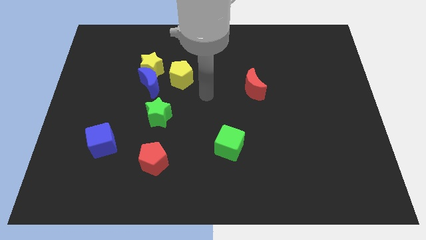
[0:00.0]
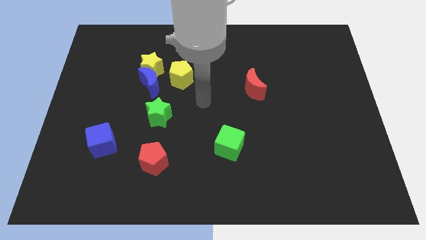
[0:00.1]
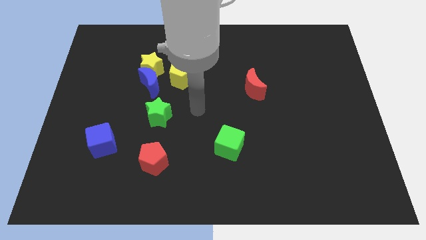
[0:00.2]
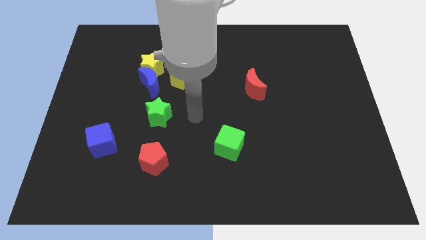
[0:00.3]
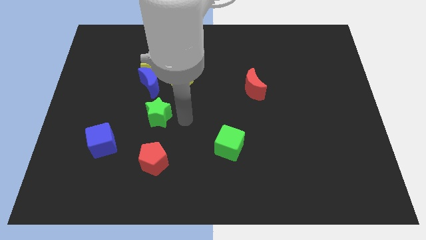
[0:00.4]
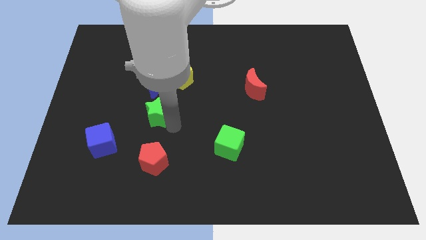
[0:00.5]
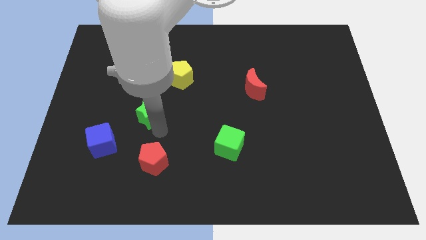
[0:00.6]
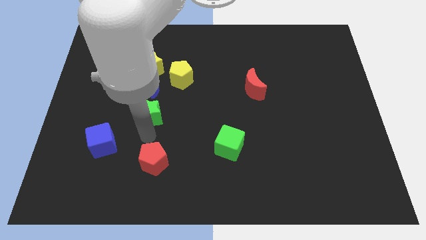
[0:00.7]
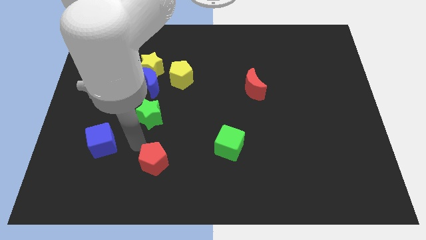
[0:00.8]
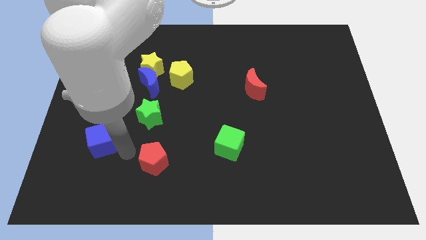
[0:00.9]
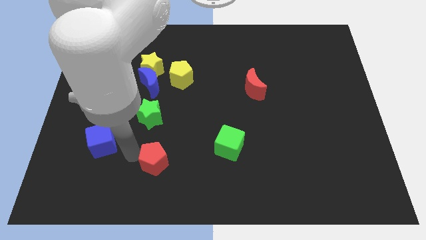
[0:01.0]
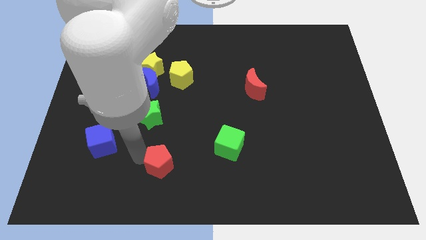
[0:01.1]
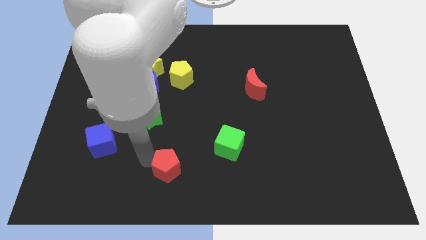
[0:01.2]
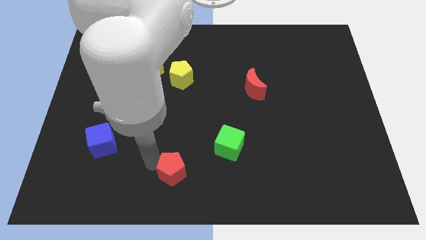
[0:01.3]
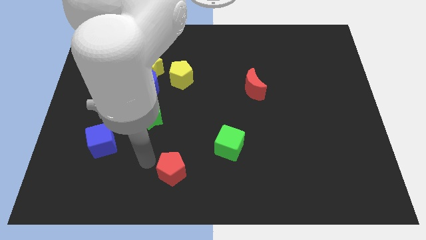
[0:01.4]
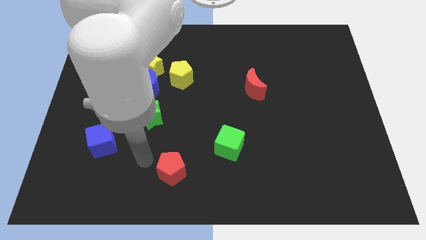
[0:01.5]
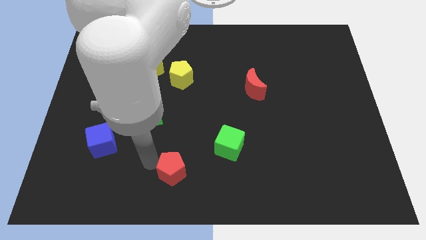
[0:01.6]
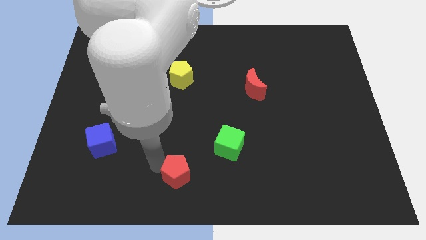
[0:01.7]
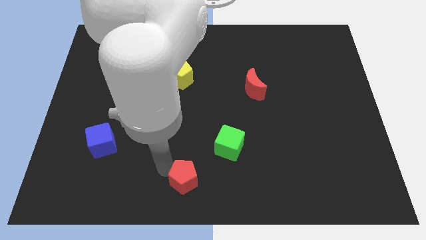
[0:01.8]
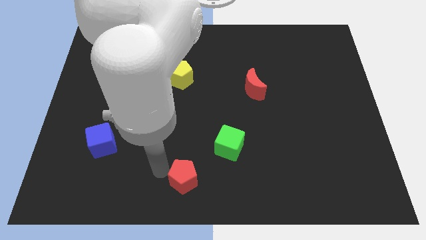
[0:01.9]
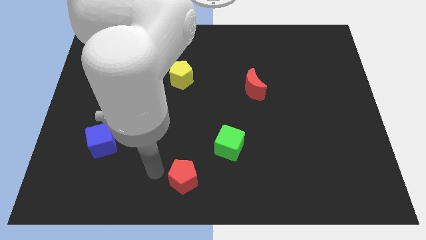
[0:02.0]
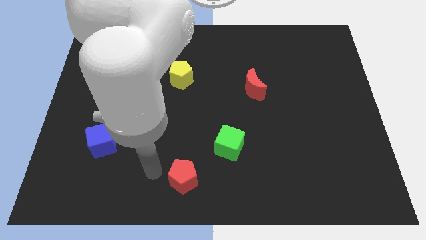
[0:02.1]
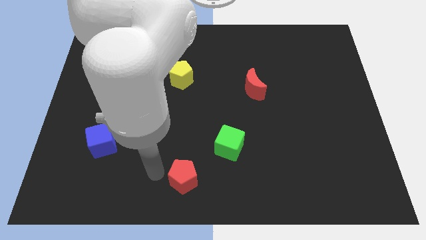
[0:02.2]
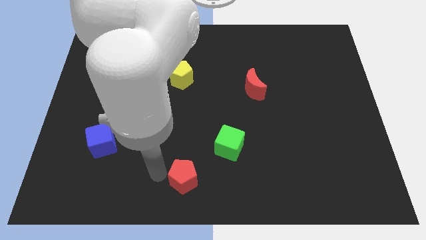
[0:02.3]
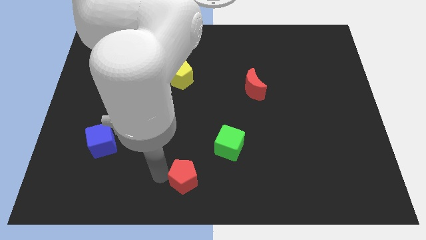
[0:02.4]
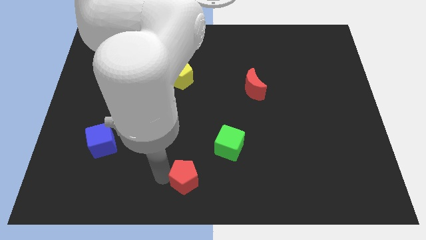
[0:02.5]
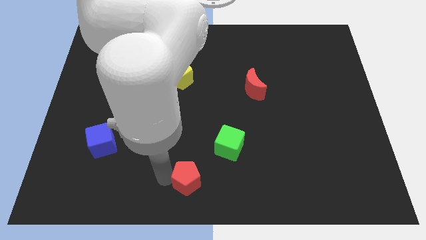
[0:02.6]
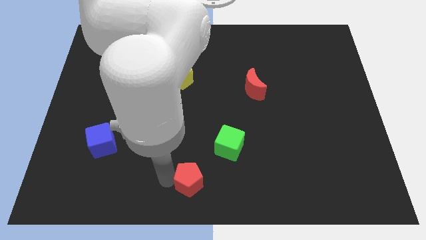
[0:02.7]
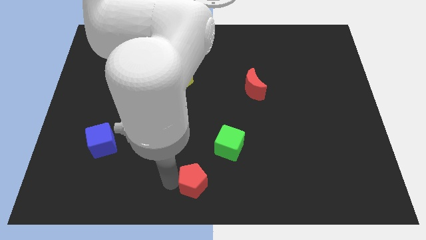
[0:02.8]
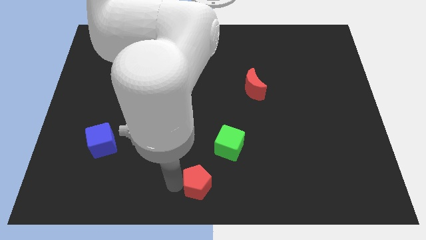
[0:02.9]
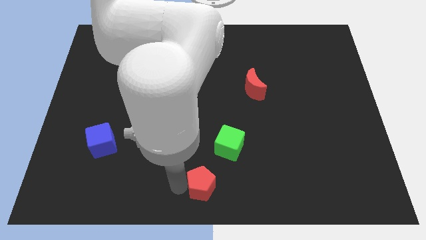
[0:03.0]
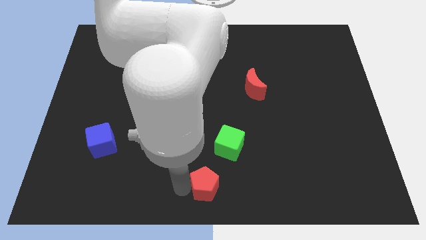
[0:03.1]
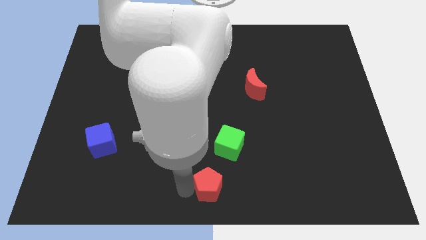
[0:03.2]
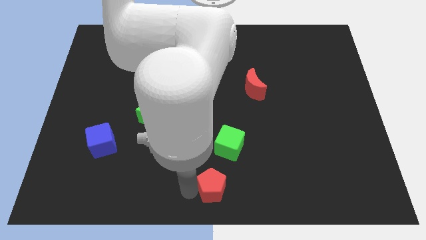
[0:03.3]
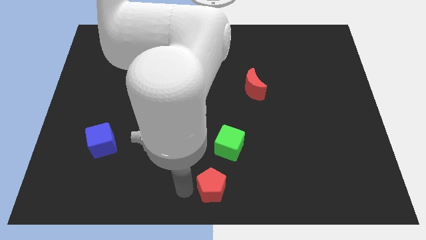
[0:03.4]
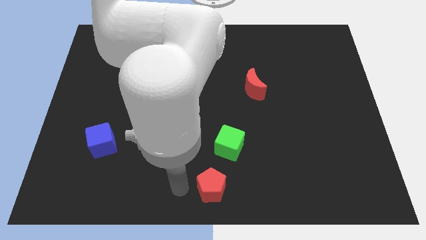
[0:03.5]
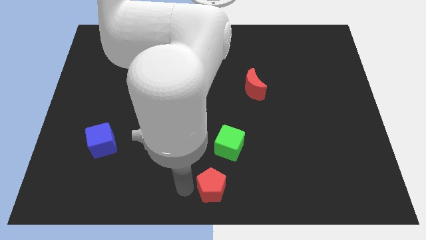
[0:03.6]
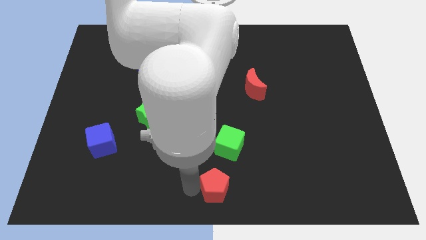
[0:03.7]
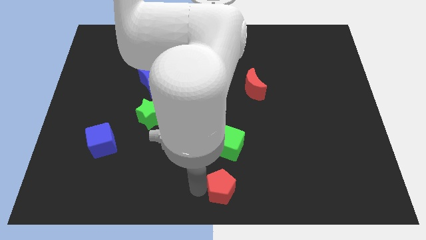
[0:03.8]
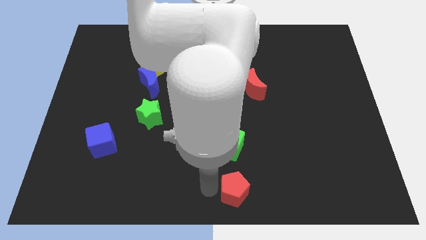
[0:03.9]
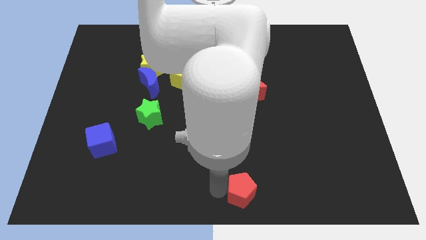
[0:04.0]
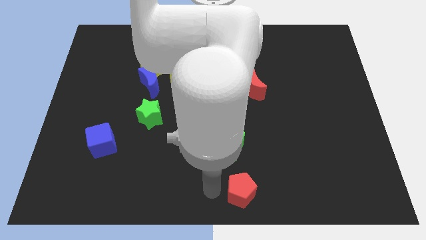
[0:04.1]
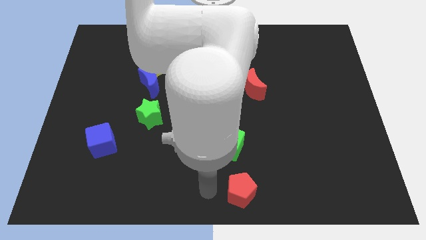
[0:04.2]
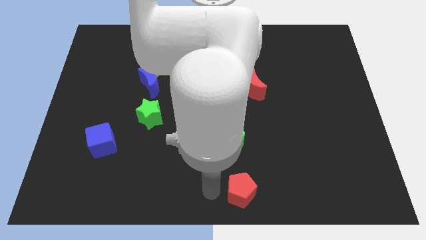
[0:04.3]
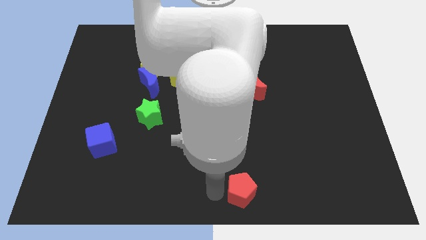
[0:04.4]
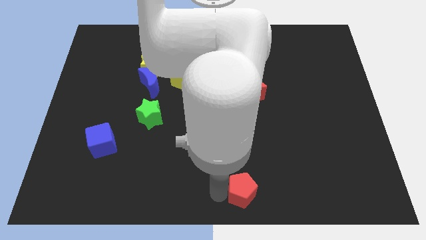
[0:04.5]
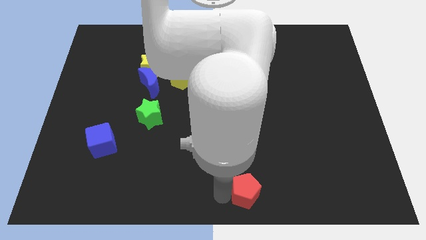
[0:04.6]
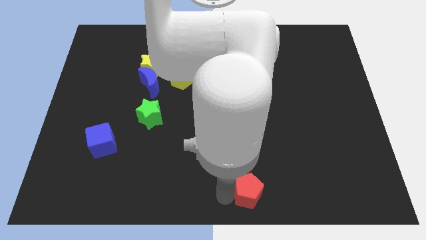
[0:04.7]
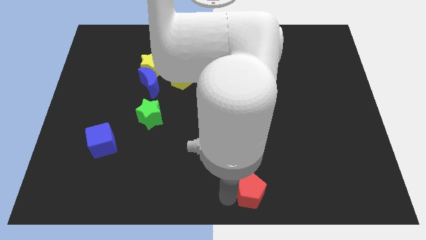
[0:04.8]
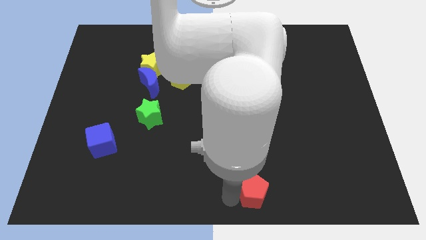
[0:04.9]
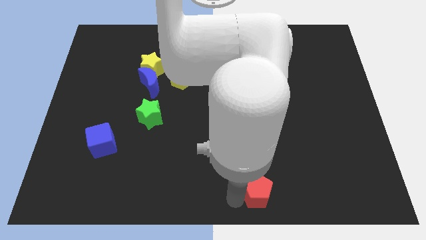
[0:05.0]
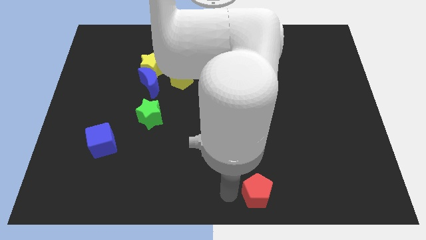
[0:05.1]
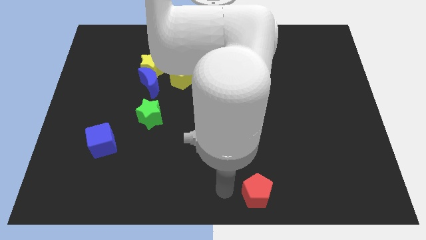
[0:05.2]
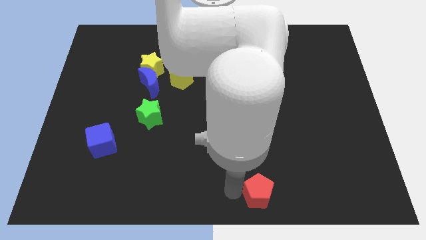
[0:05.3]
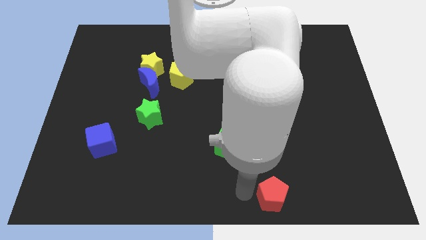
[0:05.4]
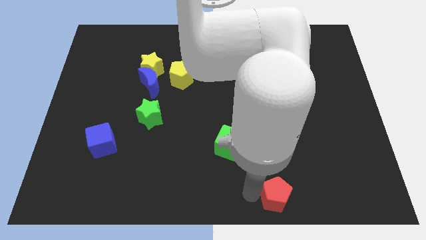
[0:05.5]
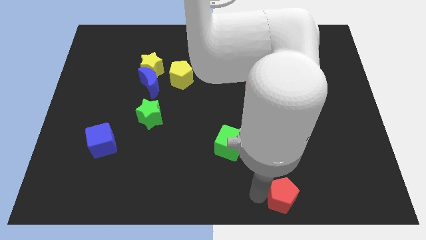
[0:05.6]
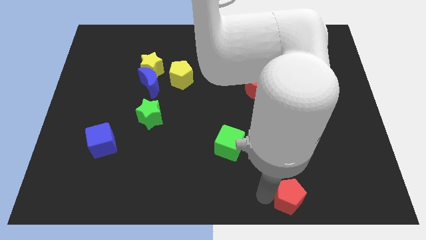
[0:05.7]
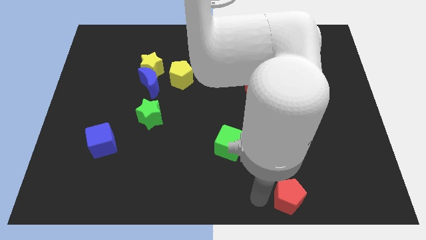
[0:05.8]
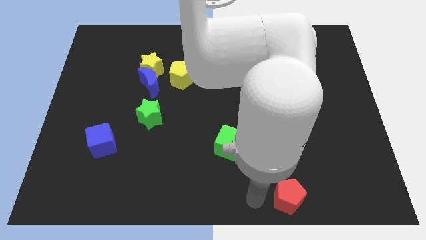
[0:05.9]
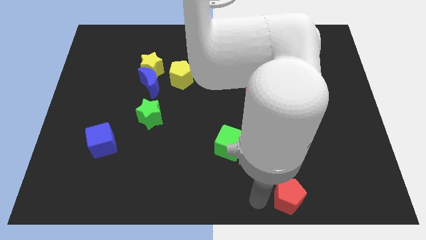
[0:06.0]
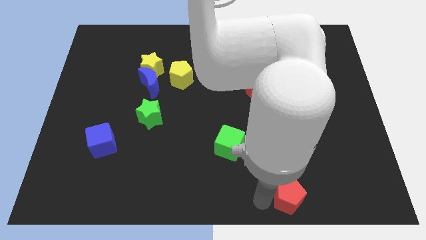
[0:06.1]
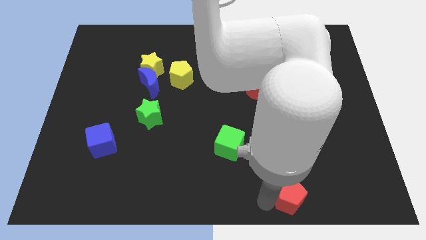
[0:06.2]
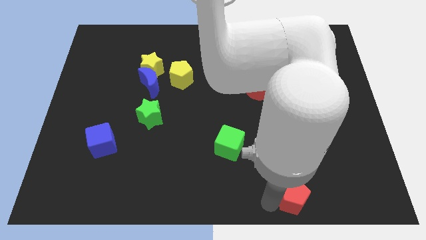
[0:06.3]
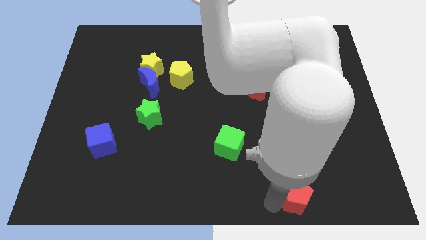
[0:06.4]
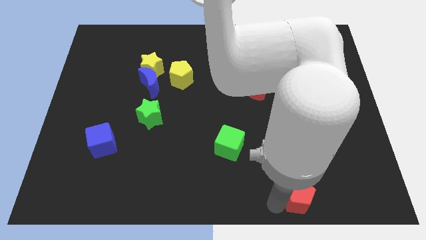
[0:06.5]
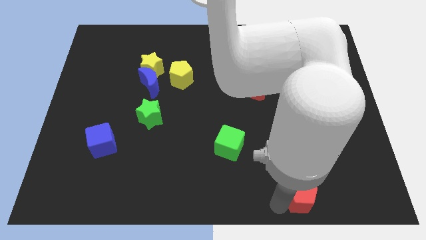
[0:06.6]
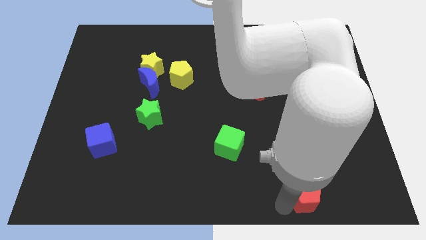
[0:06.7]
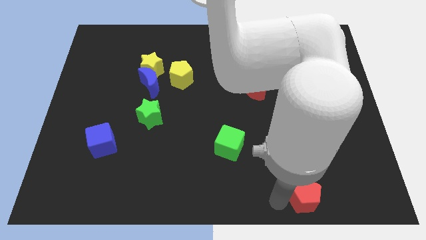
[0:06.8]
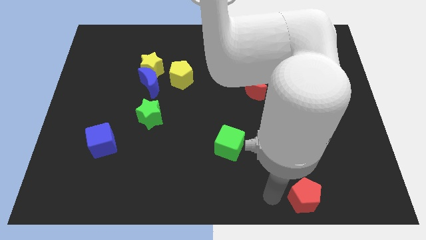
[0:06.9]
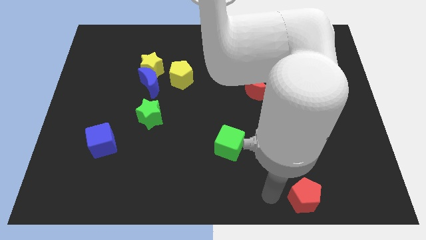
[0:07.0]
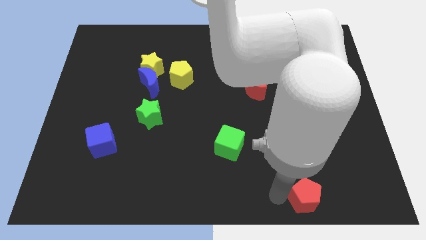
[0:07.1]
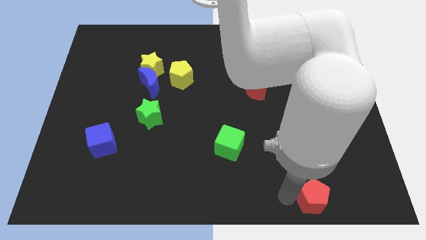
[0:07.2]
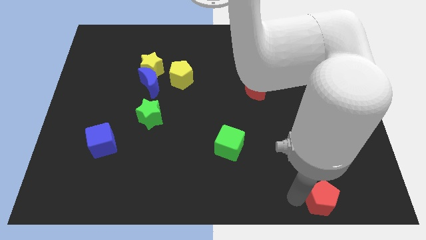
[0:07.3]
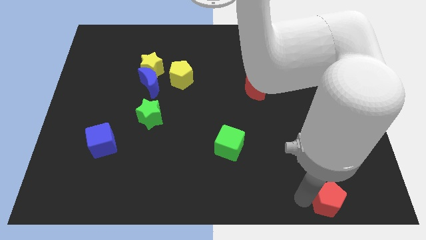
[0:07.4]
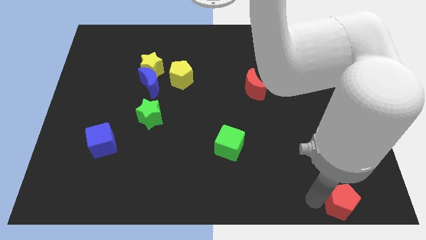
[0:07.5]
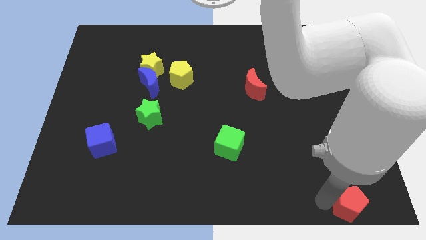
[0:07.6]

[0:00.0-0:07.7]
put the red pentagon to the bottom right
